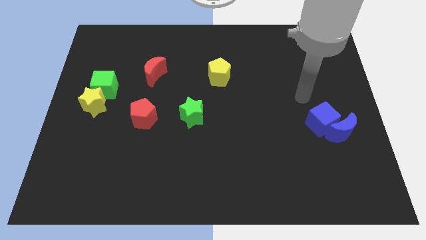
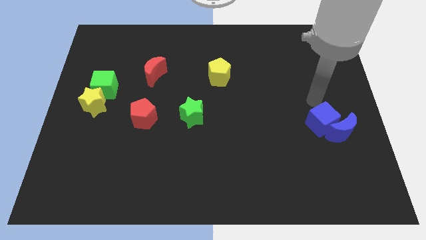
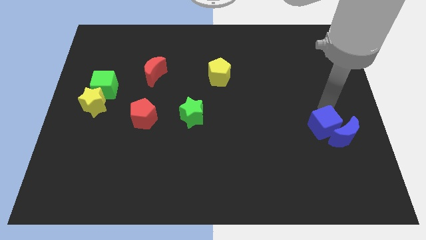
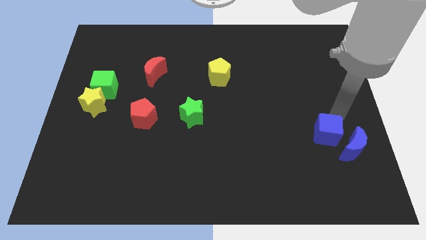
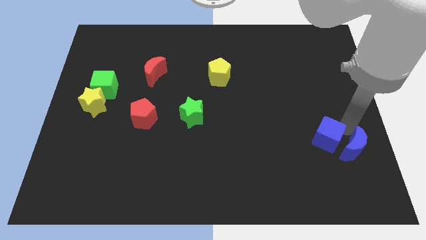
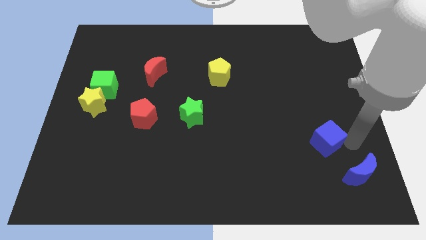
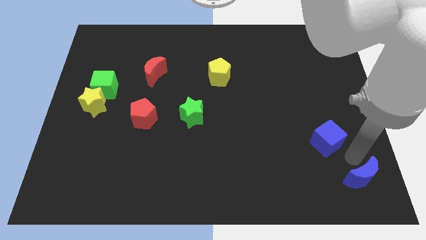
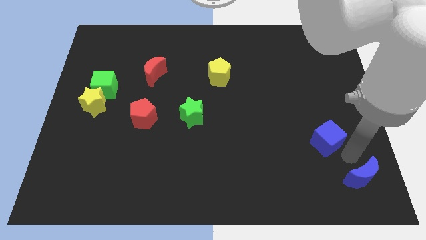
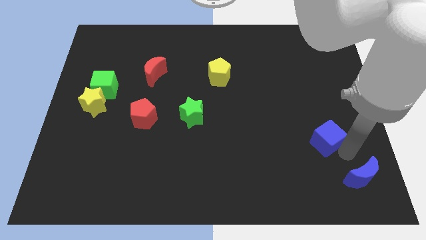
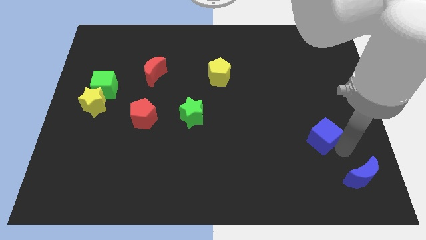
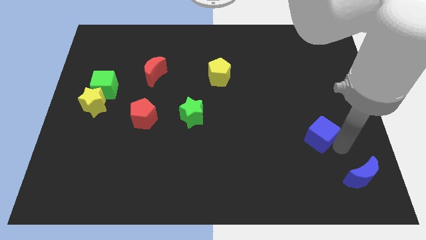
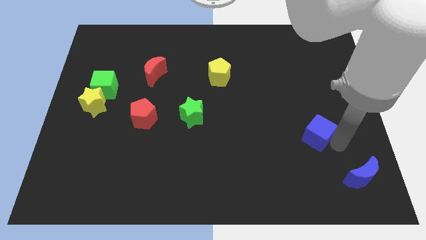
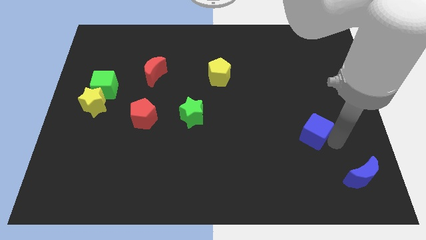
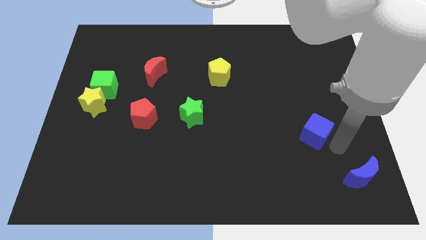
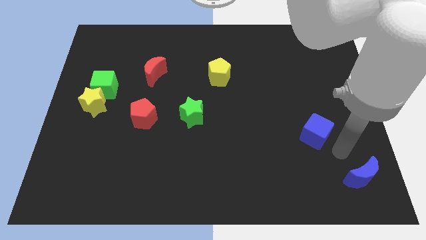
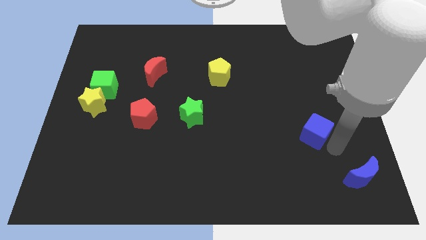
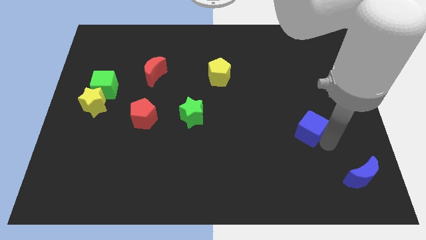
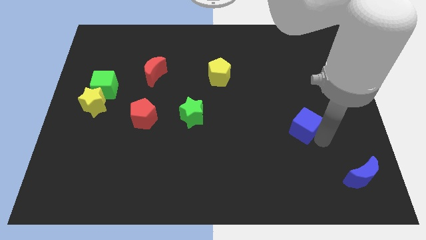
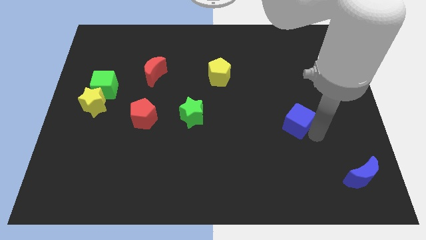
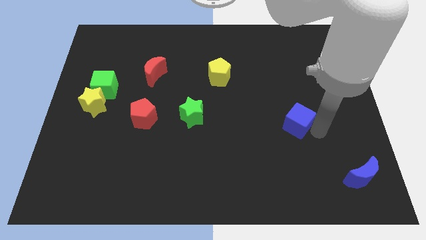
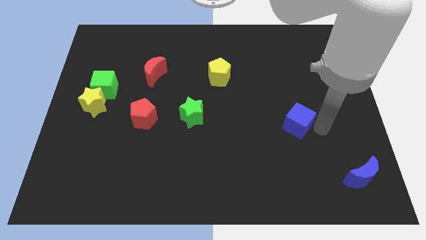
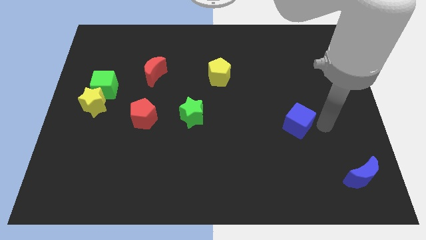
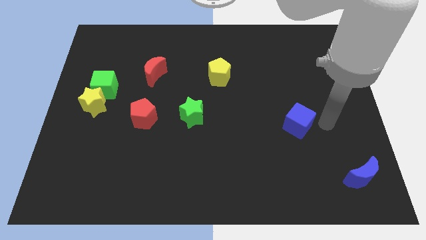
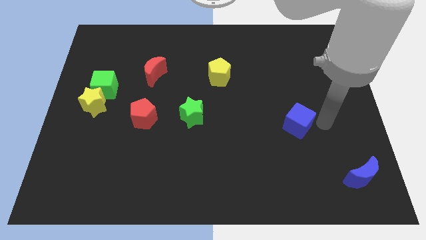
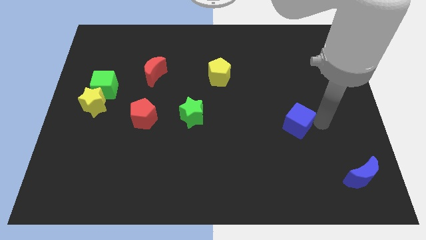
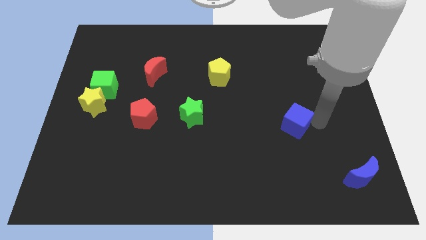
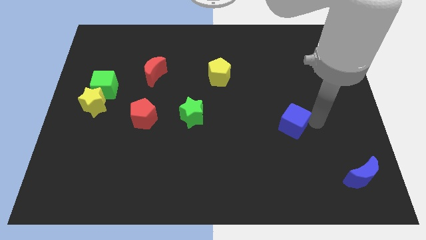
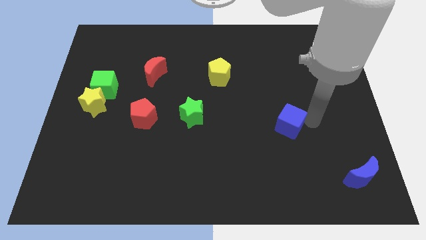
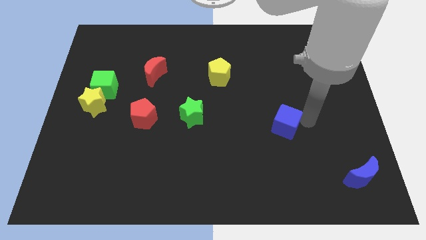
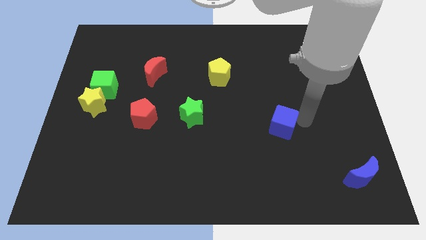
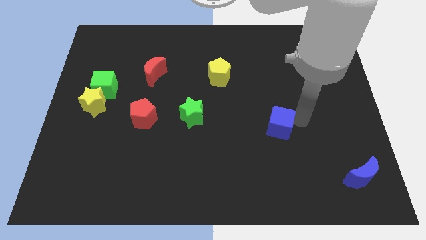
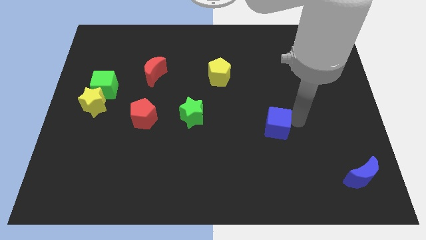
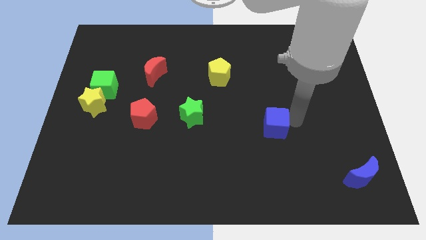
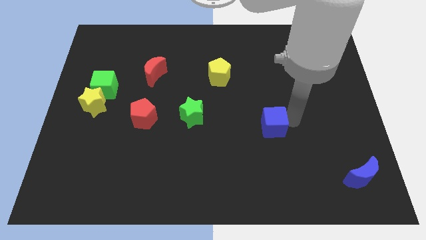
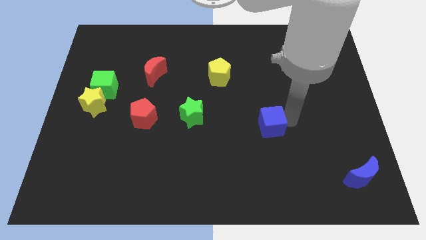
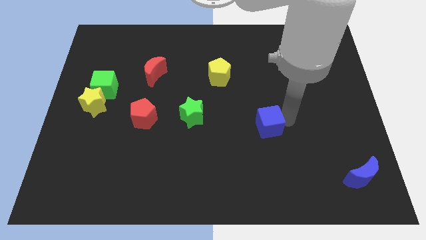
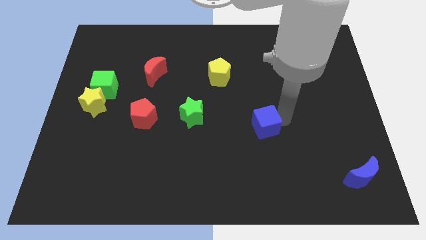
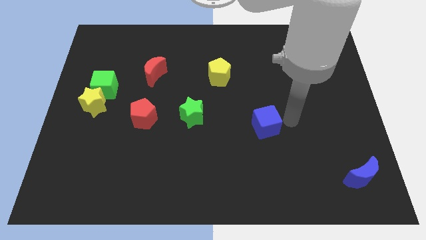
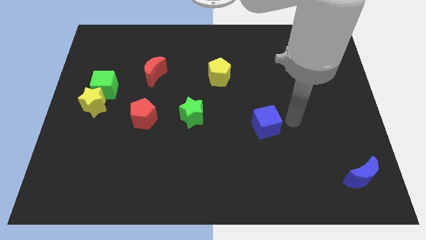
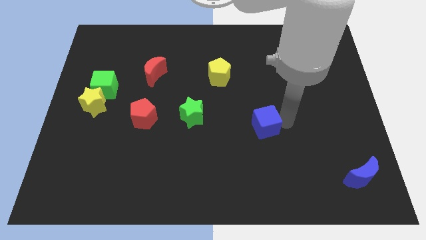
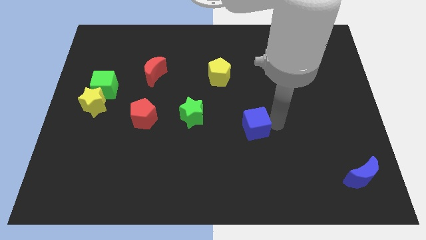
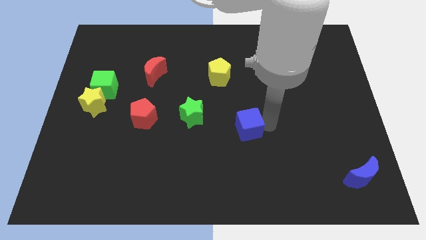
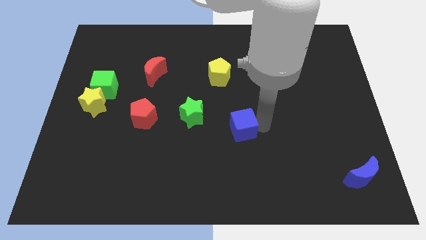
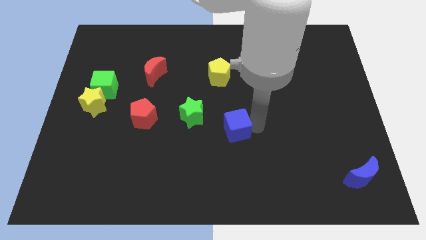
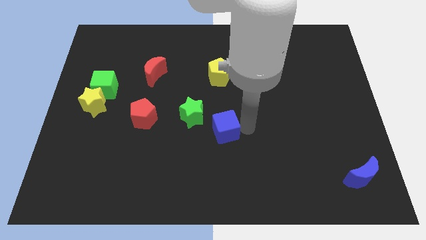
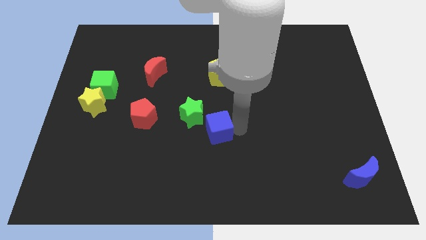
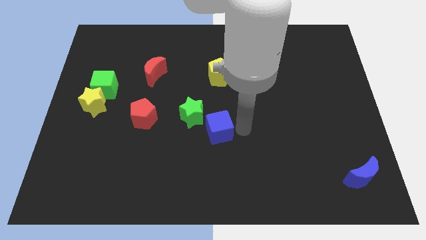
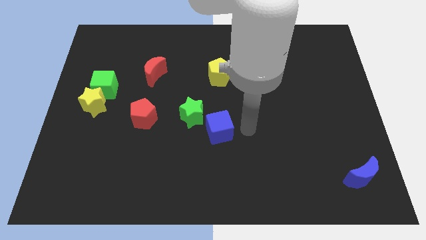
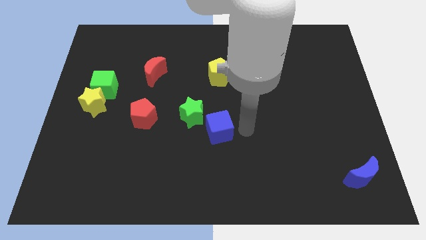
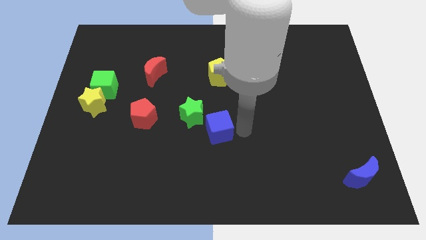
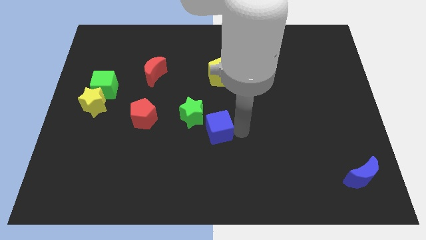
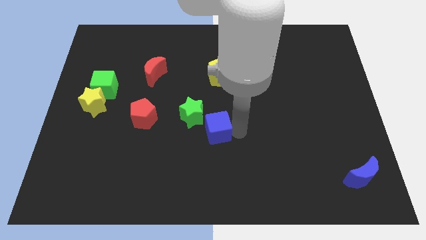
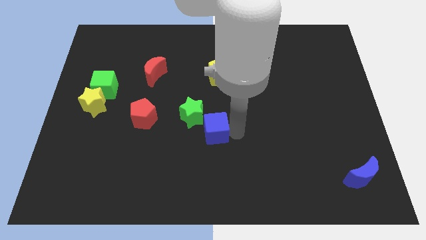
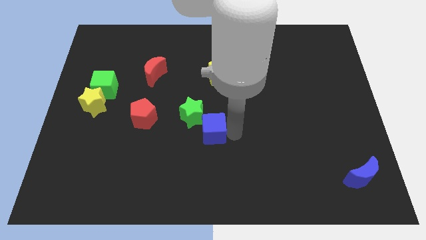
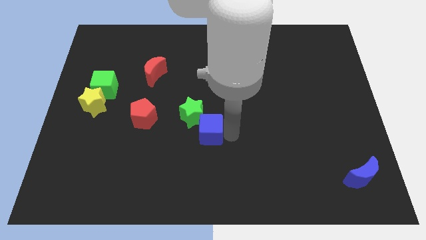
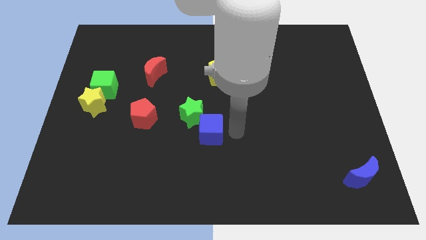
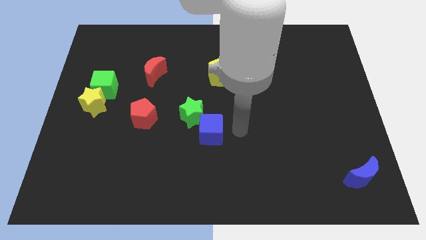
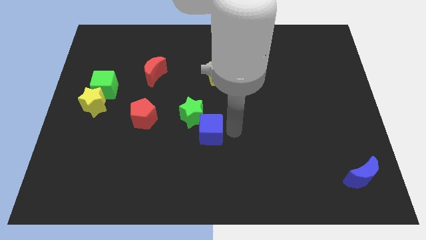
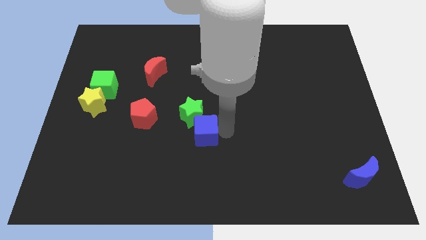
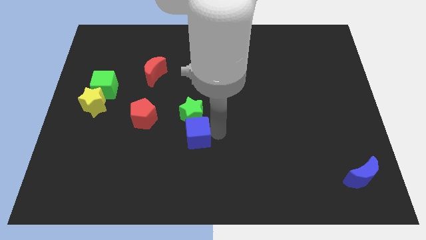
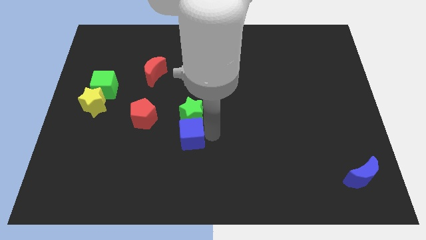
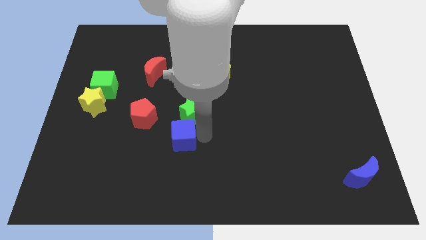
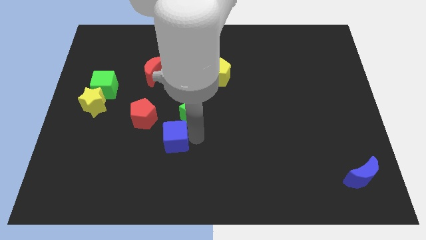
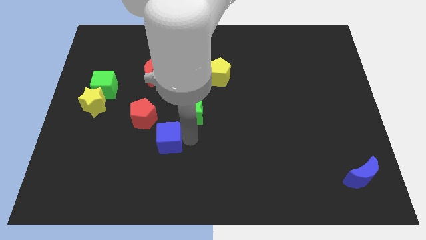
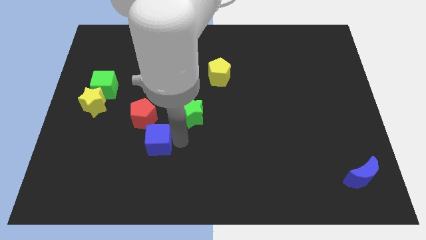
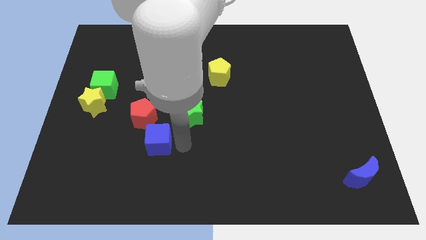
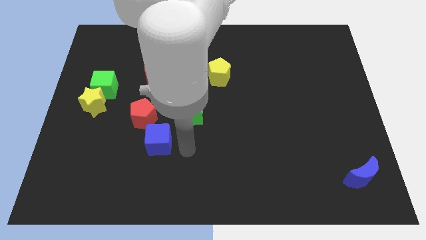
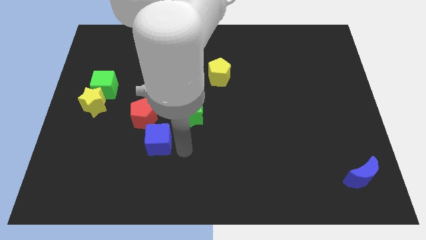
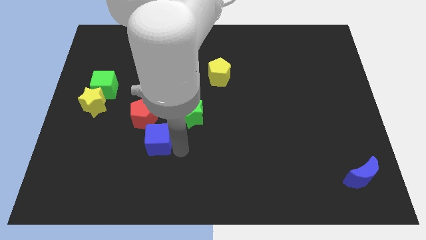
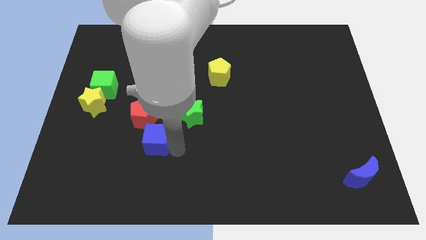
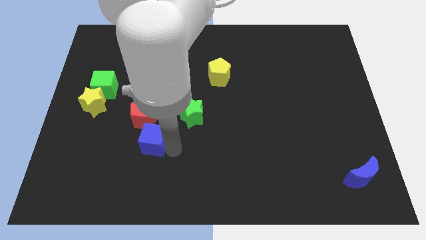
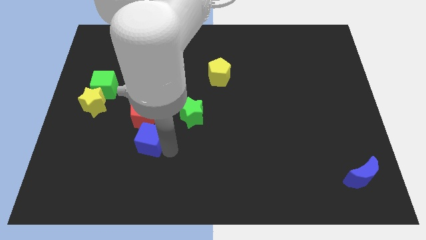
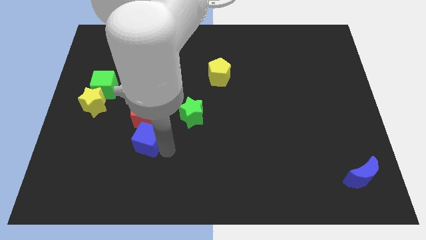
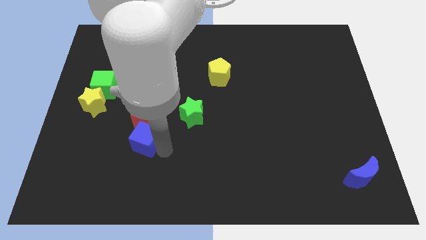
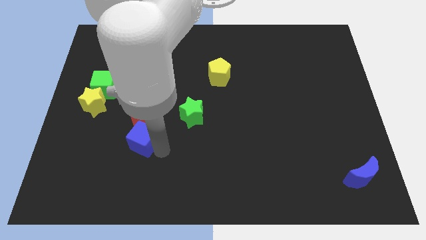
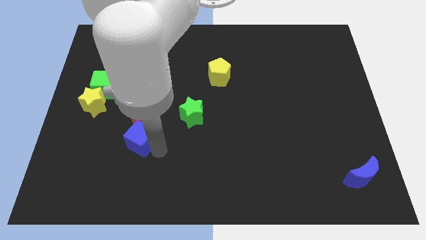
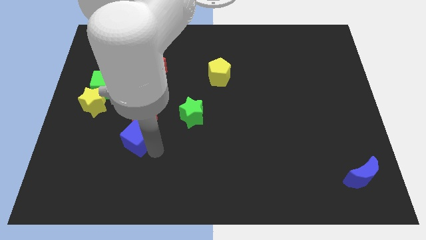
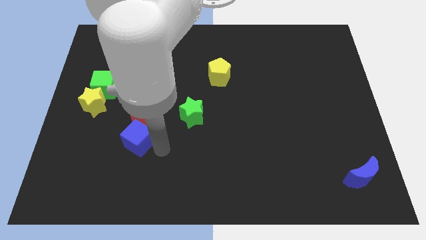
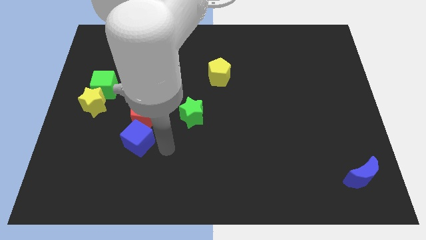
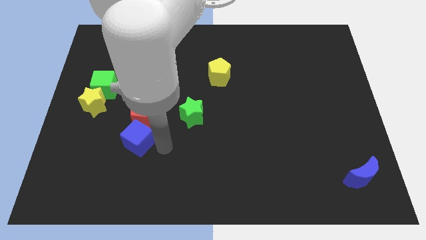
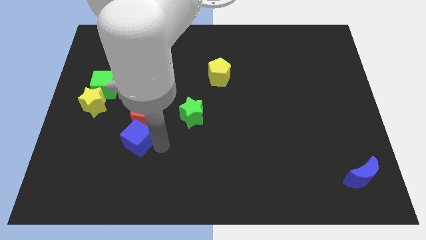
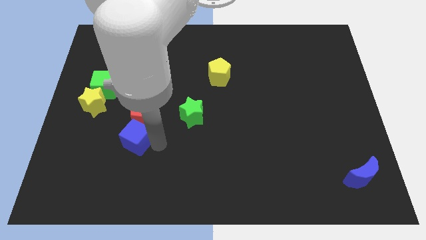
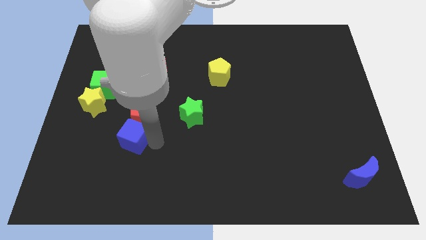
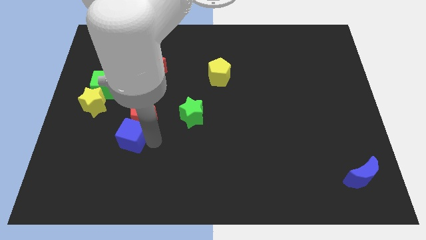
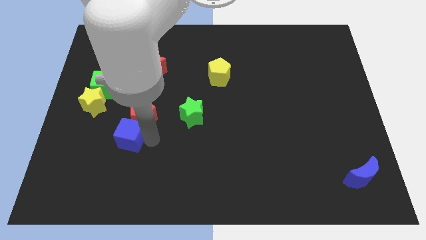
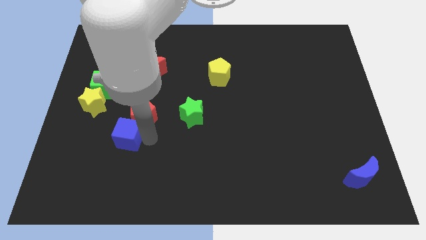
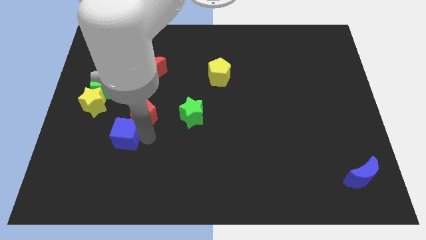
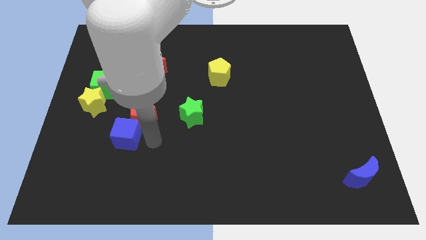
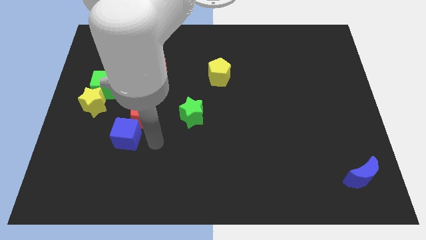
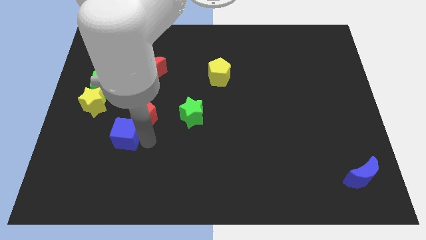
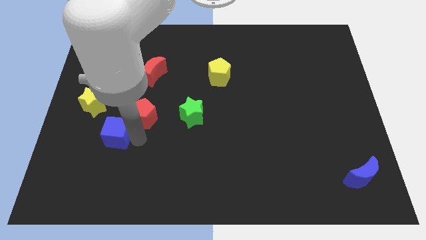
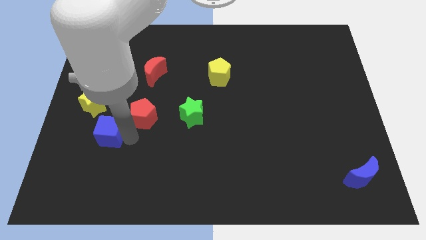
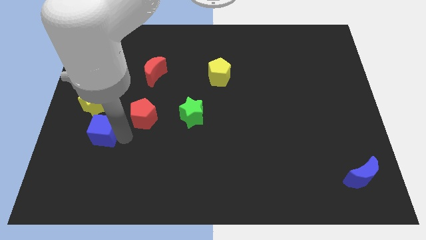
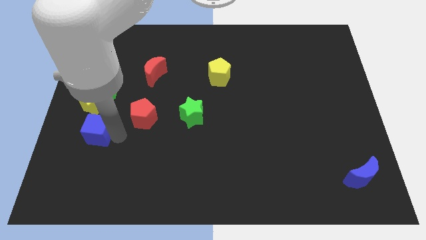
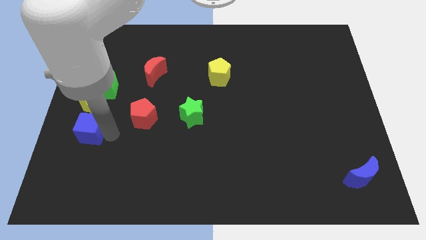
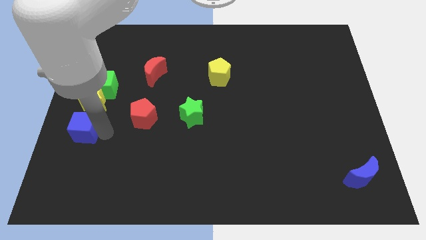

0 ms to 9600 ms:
push the blue cube to the left side
